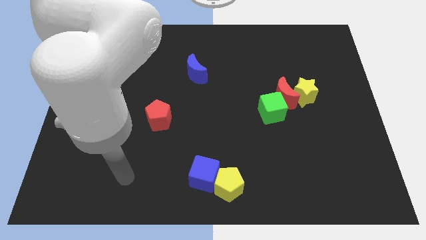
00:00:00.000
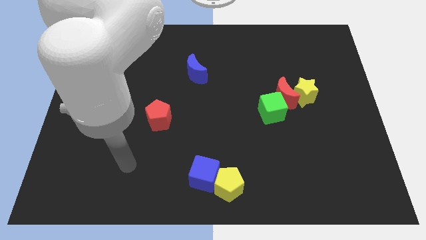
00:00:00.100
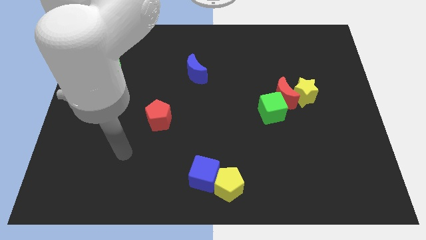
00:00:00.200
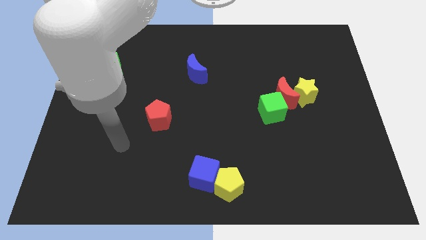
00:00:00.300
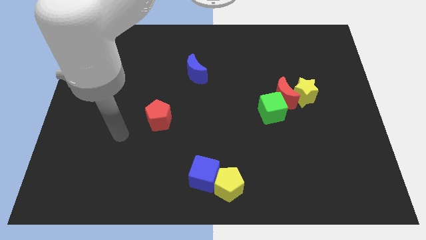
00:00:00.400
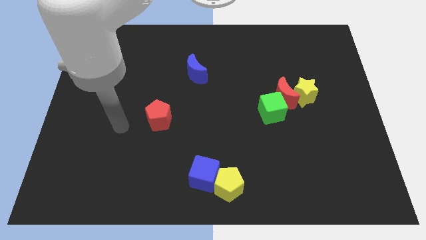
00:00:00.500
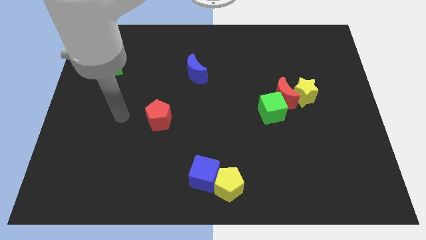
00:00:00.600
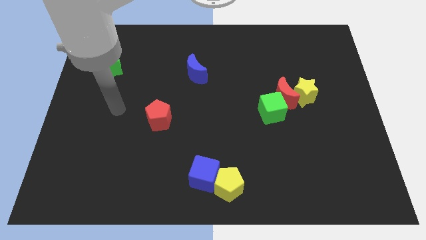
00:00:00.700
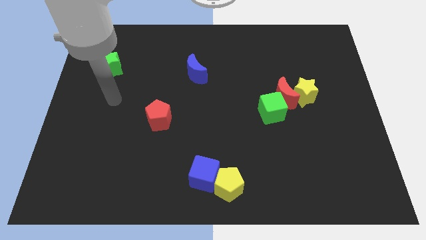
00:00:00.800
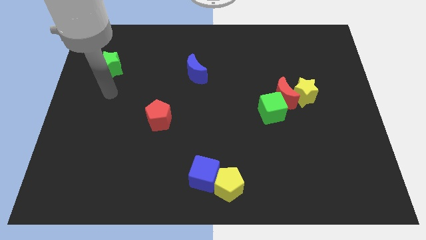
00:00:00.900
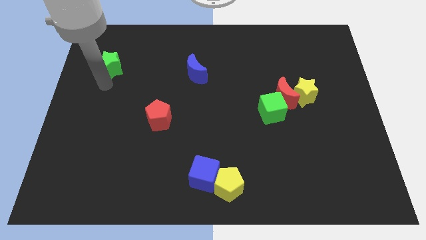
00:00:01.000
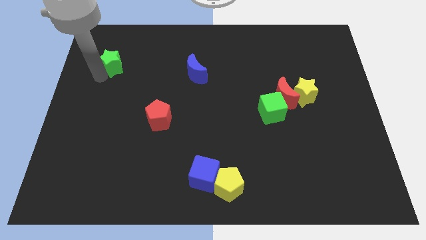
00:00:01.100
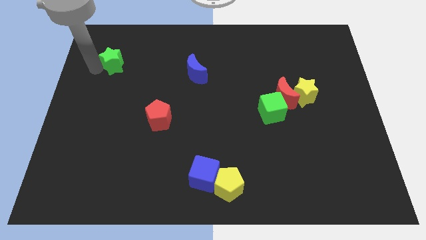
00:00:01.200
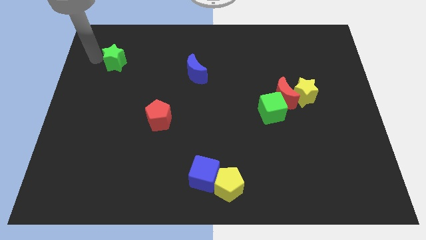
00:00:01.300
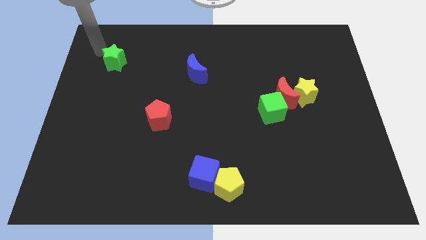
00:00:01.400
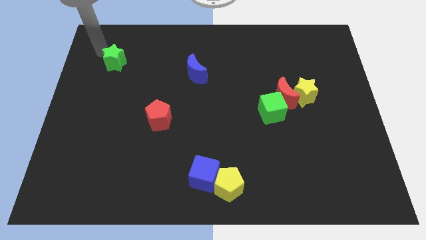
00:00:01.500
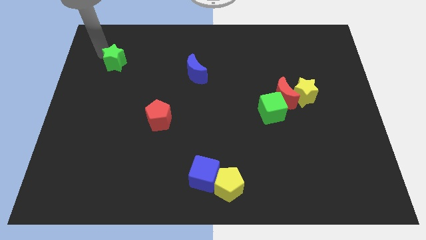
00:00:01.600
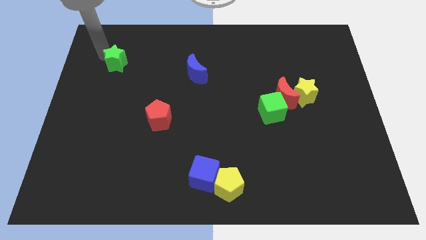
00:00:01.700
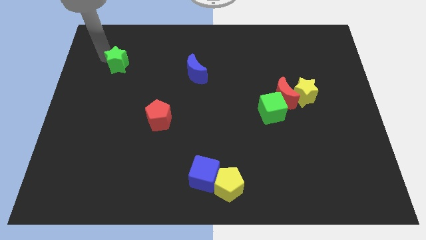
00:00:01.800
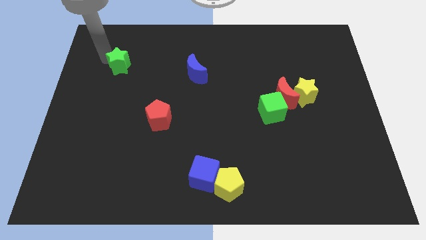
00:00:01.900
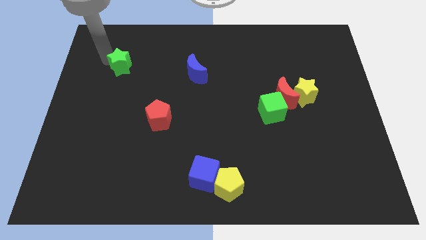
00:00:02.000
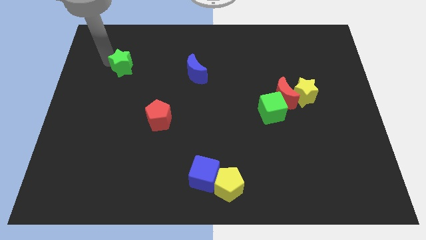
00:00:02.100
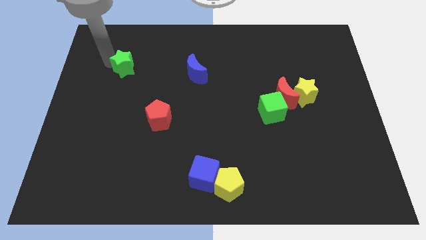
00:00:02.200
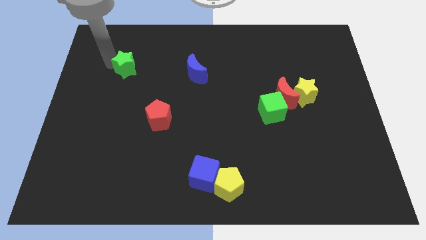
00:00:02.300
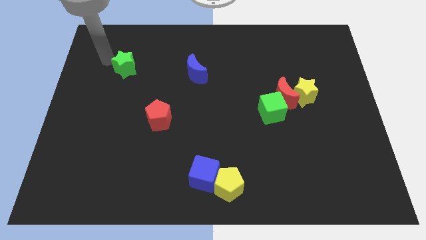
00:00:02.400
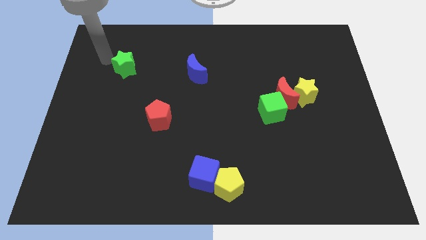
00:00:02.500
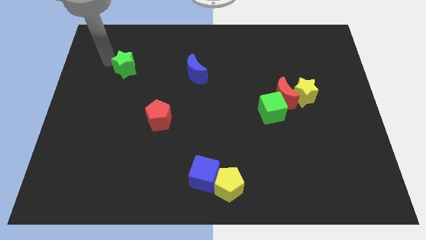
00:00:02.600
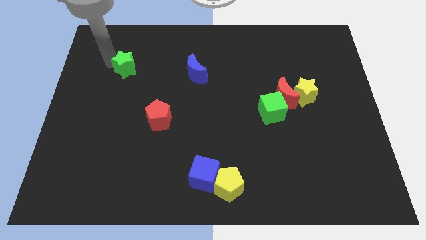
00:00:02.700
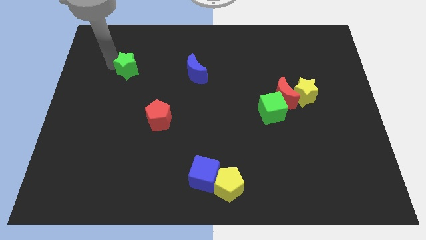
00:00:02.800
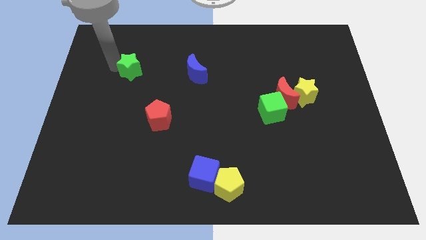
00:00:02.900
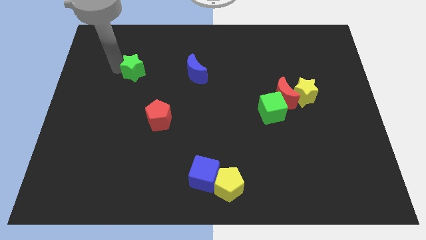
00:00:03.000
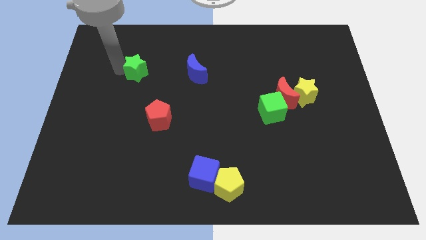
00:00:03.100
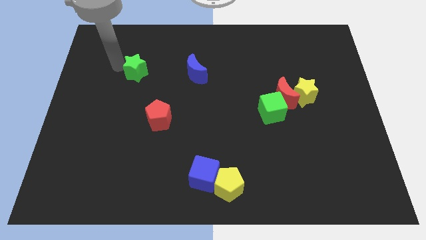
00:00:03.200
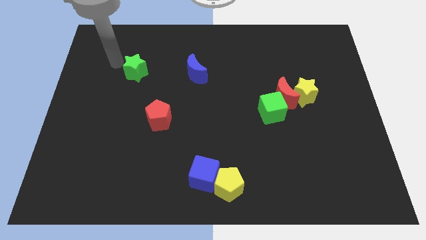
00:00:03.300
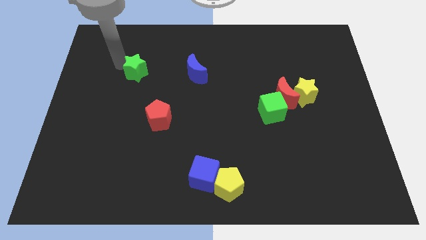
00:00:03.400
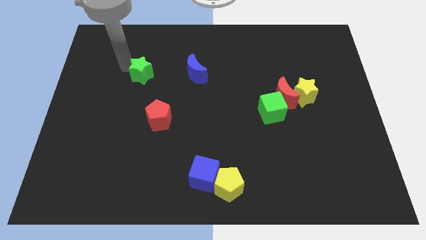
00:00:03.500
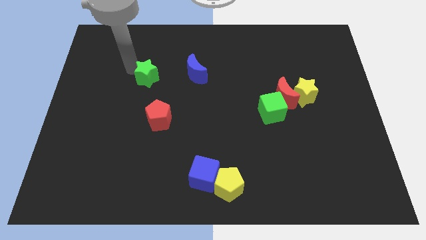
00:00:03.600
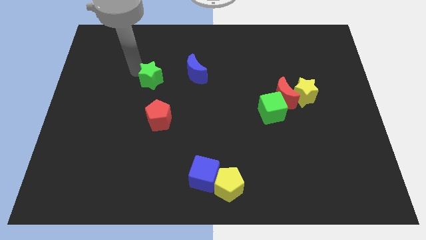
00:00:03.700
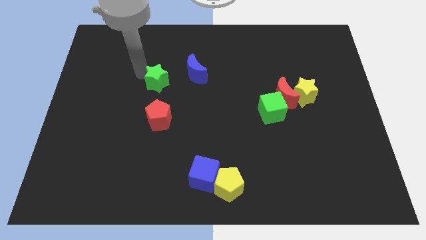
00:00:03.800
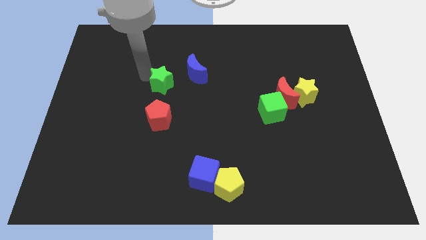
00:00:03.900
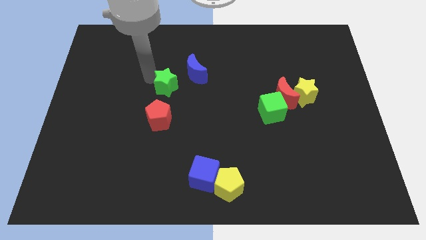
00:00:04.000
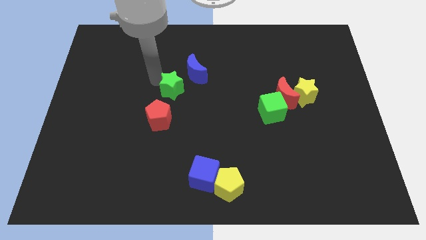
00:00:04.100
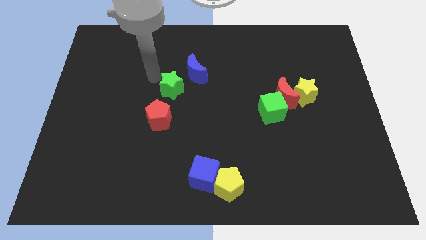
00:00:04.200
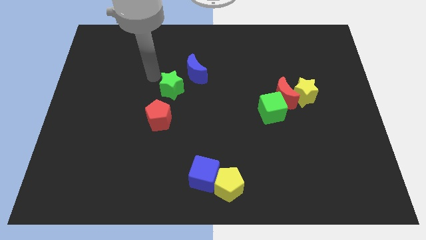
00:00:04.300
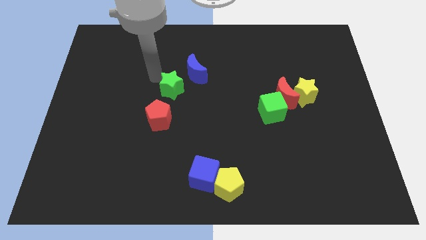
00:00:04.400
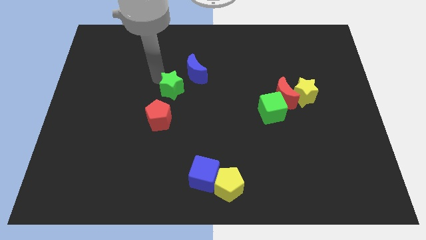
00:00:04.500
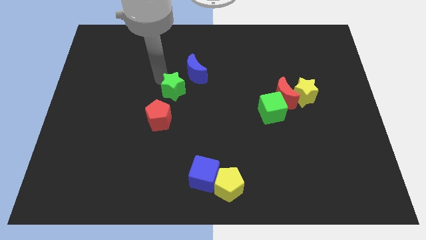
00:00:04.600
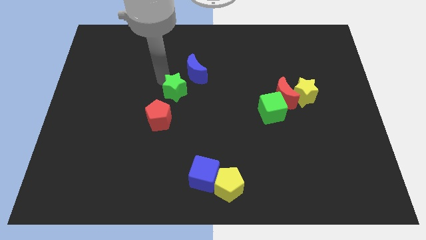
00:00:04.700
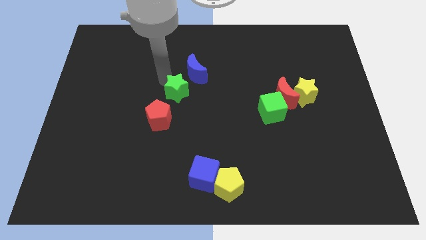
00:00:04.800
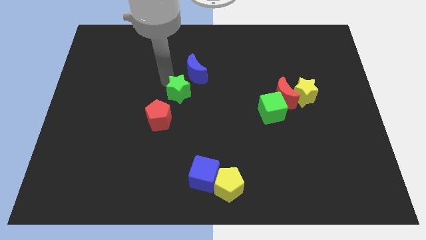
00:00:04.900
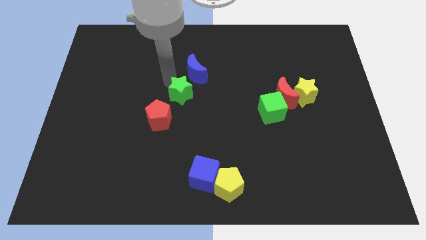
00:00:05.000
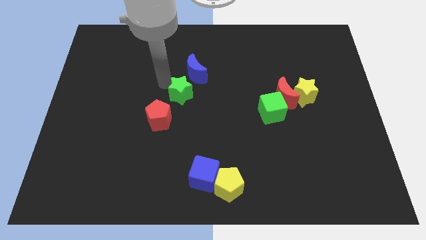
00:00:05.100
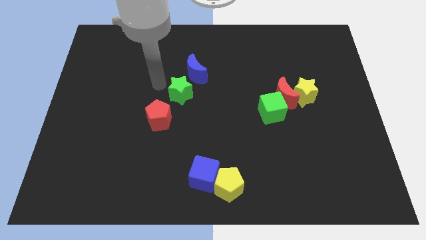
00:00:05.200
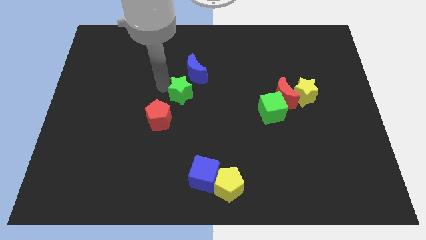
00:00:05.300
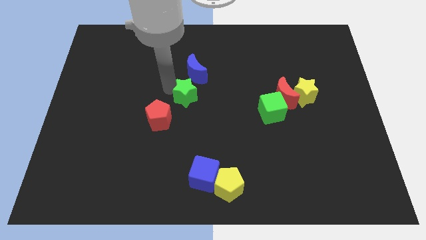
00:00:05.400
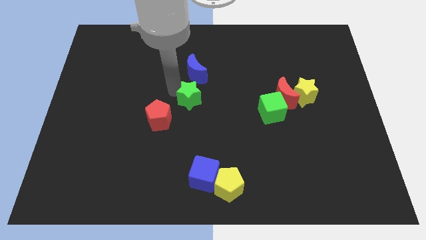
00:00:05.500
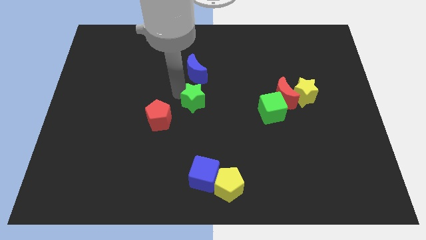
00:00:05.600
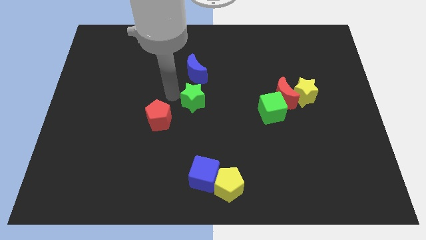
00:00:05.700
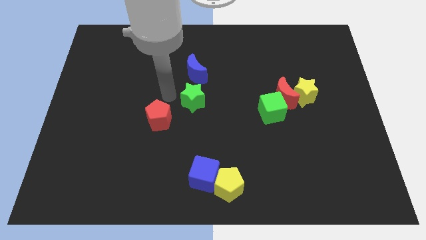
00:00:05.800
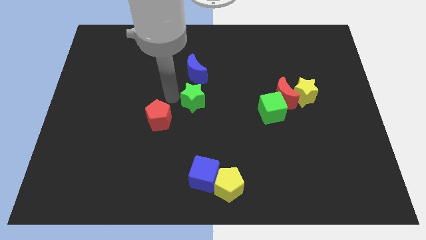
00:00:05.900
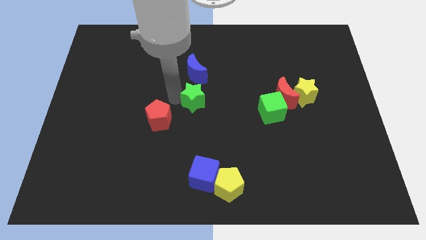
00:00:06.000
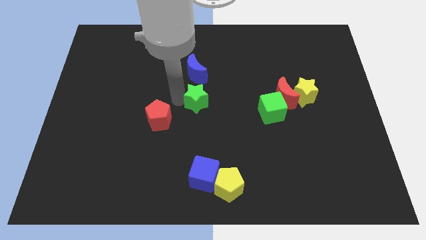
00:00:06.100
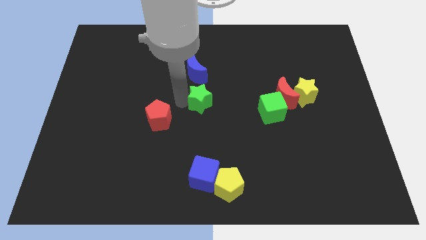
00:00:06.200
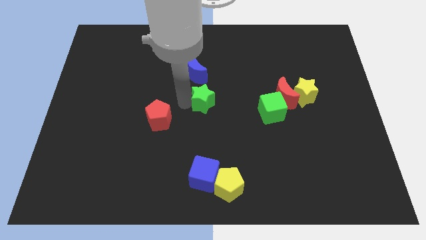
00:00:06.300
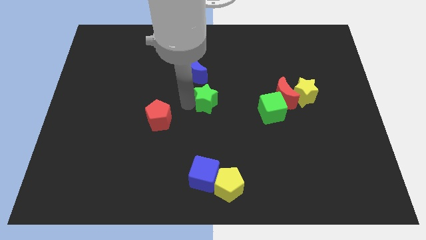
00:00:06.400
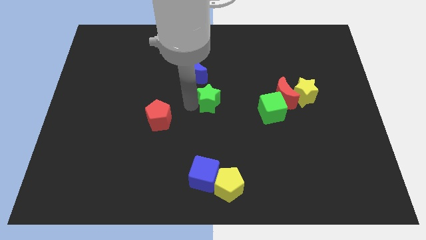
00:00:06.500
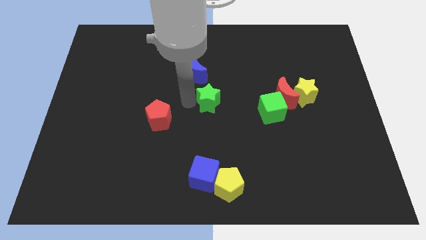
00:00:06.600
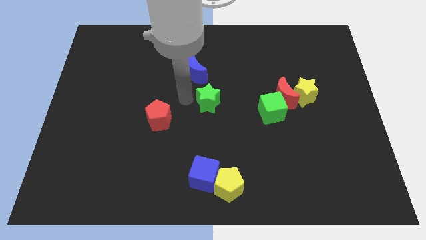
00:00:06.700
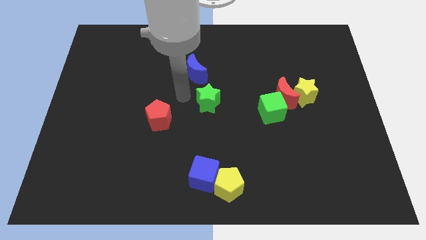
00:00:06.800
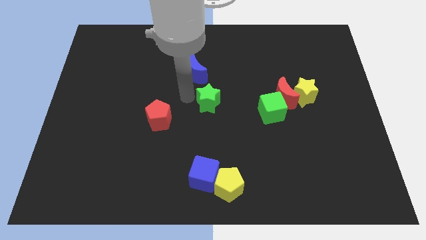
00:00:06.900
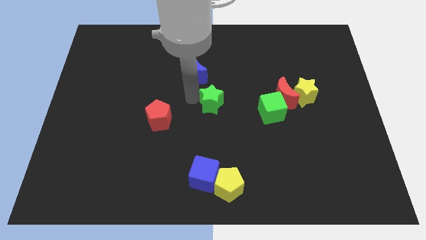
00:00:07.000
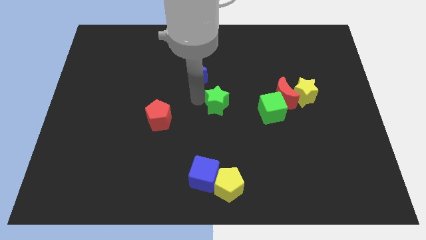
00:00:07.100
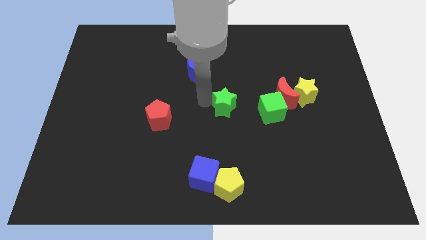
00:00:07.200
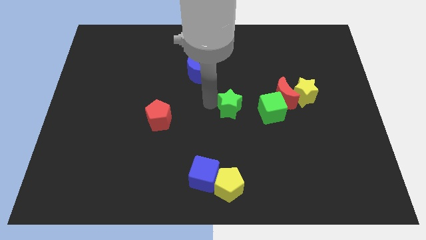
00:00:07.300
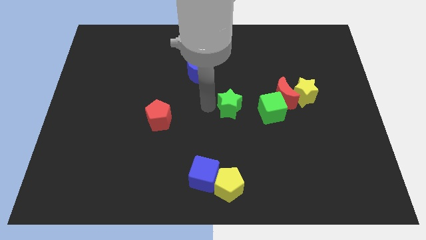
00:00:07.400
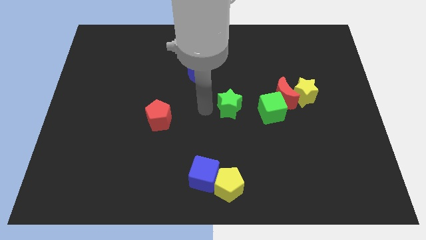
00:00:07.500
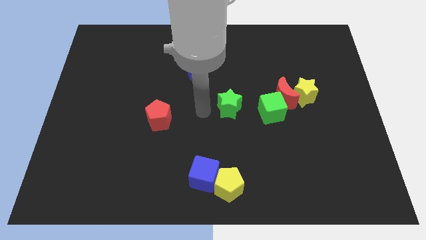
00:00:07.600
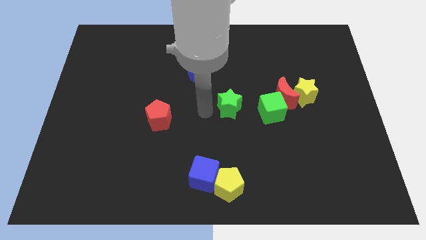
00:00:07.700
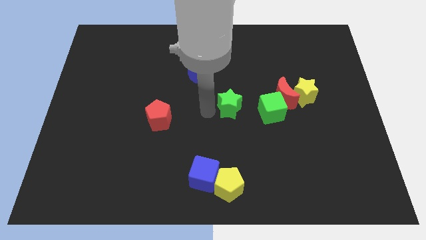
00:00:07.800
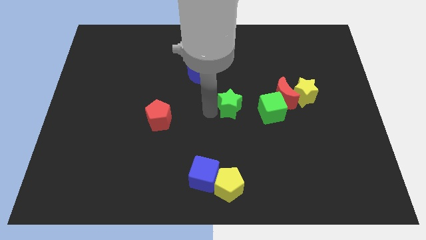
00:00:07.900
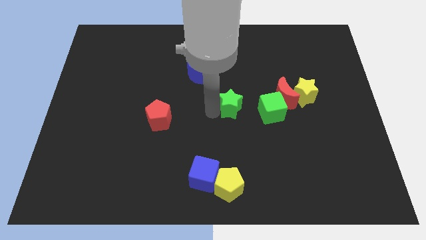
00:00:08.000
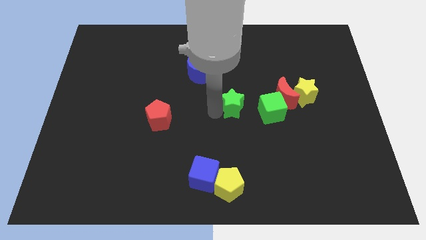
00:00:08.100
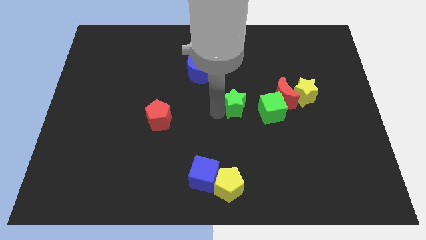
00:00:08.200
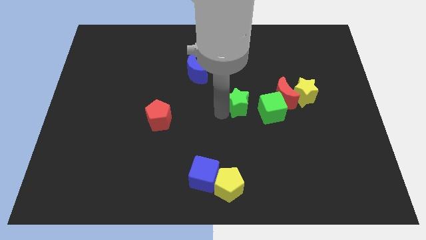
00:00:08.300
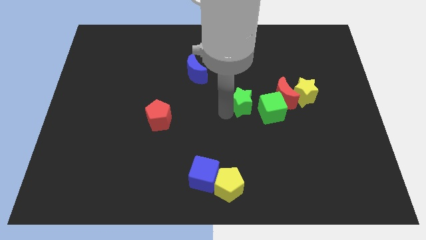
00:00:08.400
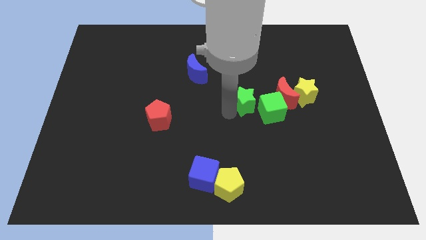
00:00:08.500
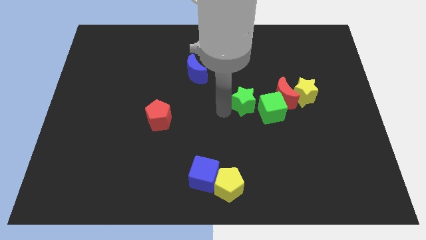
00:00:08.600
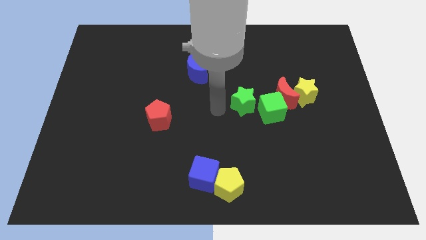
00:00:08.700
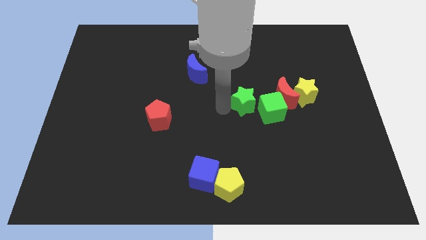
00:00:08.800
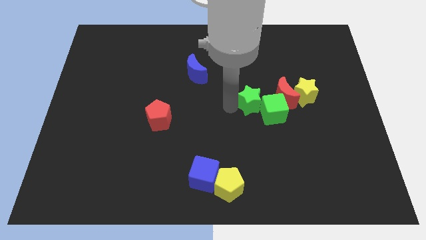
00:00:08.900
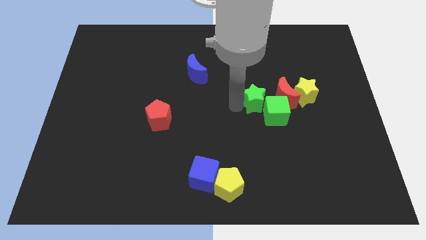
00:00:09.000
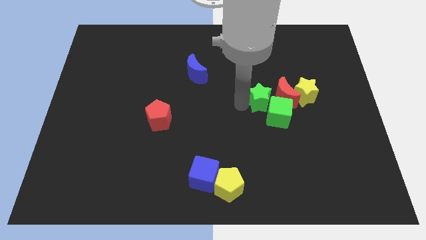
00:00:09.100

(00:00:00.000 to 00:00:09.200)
move the green star close to the red moon
